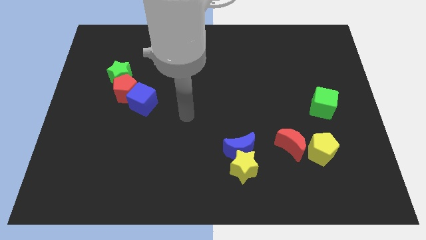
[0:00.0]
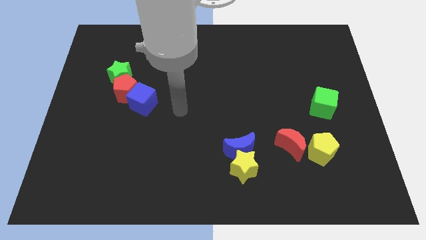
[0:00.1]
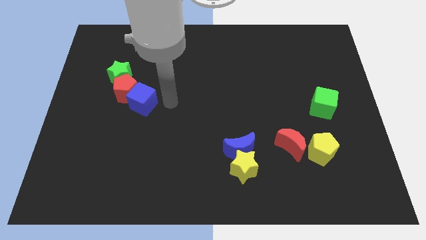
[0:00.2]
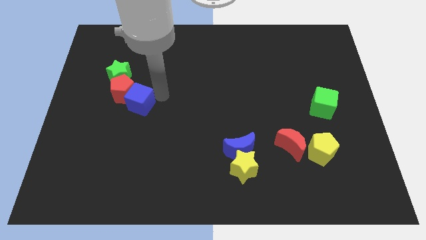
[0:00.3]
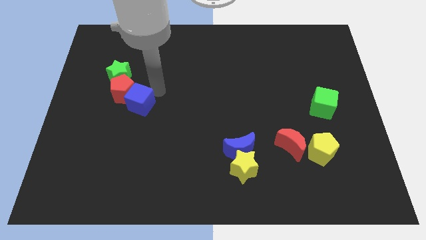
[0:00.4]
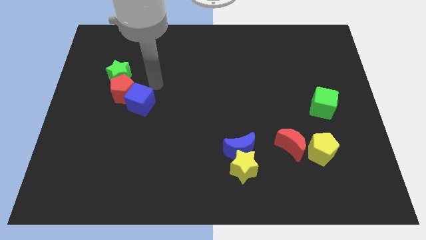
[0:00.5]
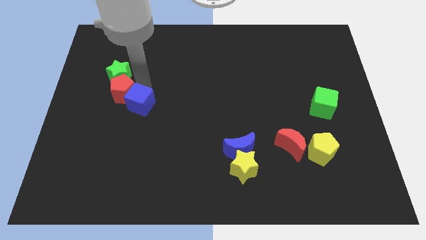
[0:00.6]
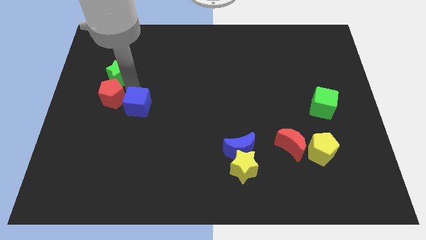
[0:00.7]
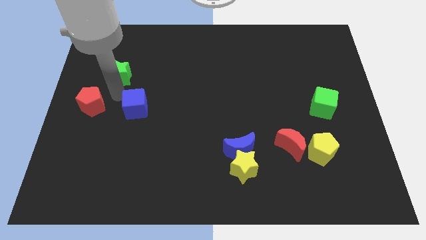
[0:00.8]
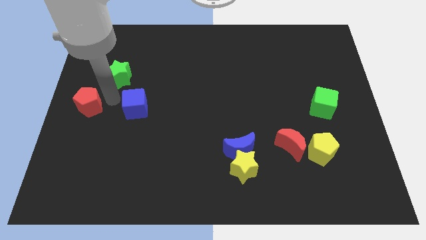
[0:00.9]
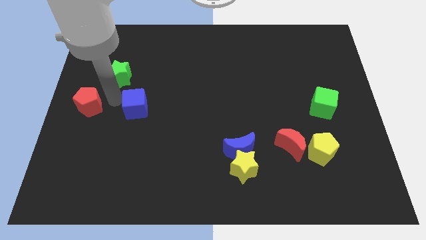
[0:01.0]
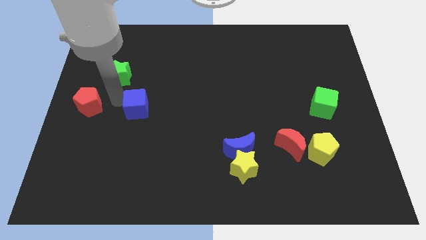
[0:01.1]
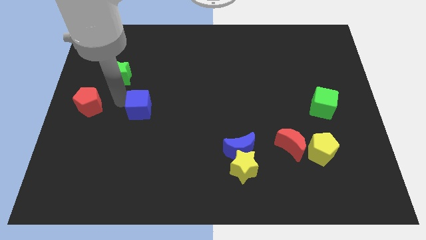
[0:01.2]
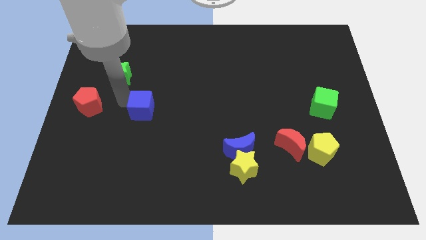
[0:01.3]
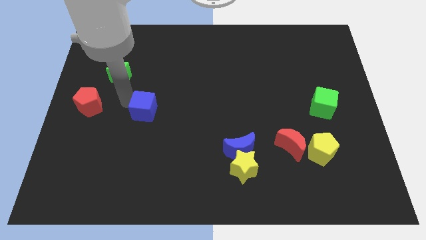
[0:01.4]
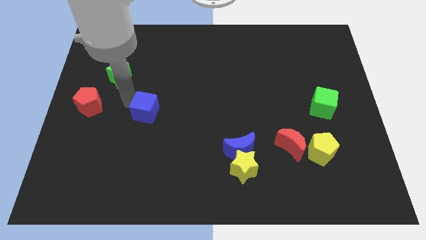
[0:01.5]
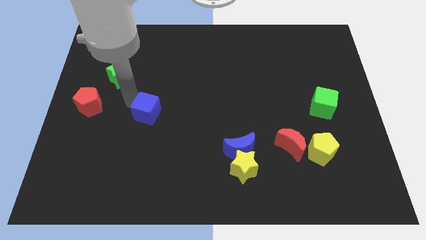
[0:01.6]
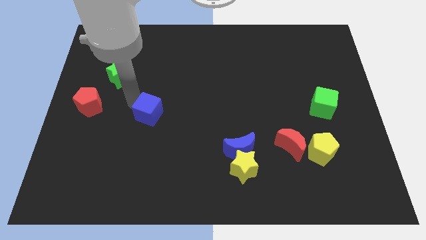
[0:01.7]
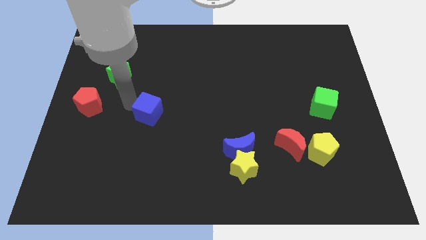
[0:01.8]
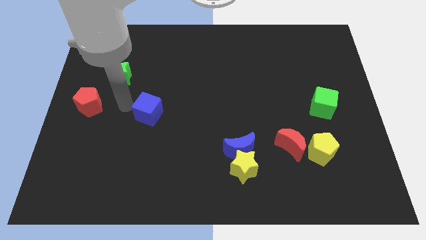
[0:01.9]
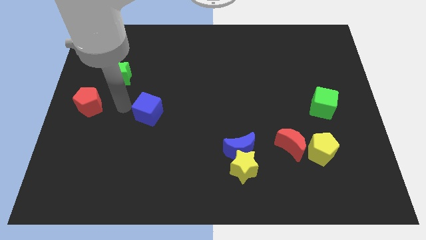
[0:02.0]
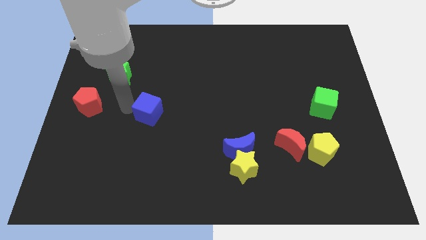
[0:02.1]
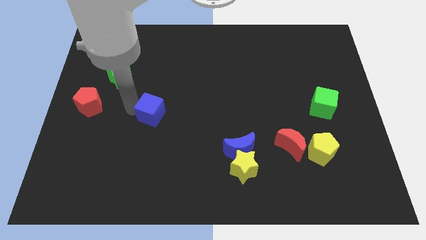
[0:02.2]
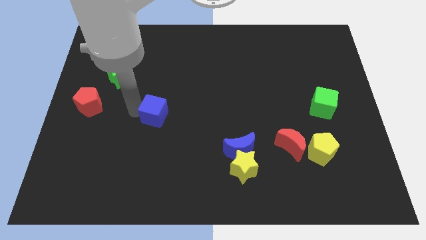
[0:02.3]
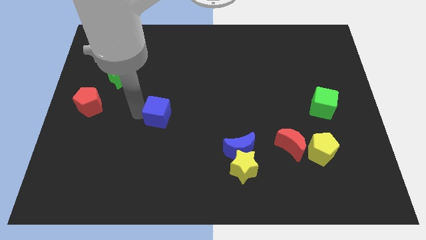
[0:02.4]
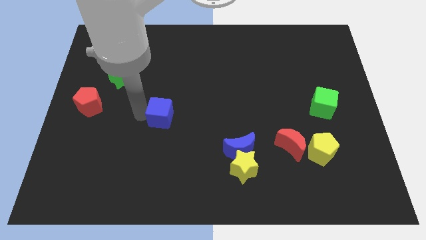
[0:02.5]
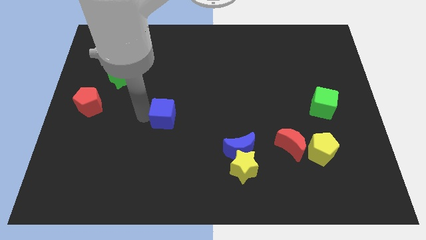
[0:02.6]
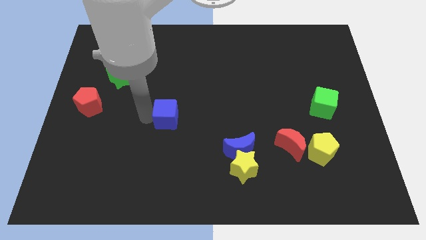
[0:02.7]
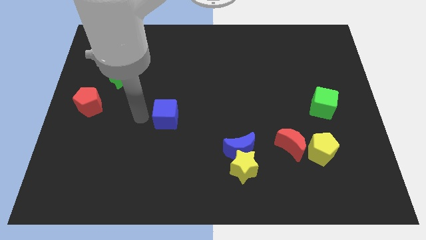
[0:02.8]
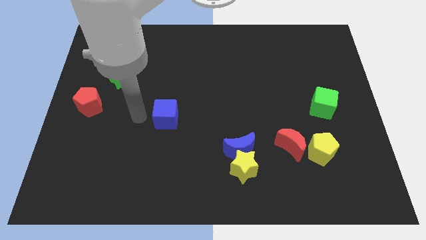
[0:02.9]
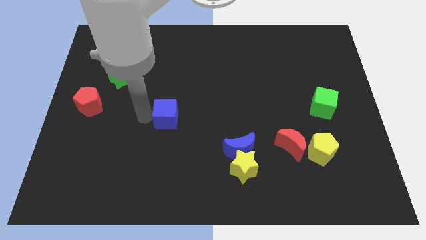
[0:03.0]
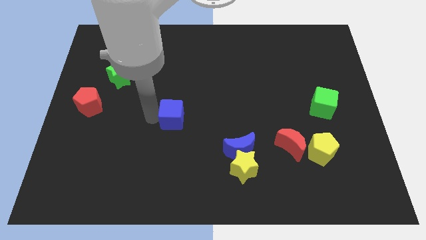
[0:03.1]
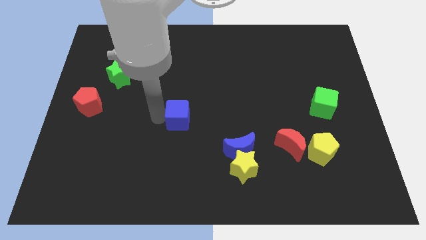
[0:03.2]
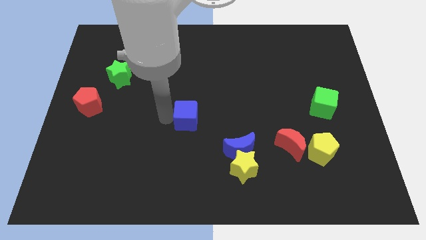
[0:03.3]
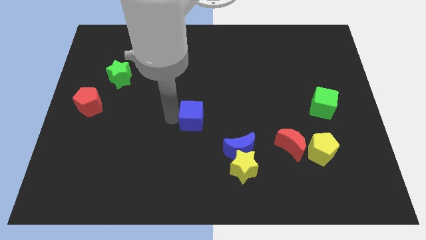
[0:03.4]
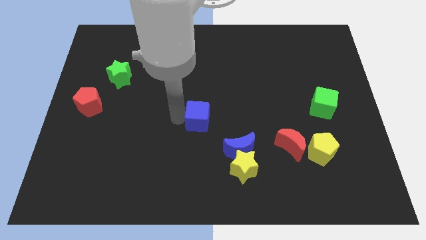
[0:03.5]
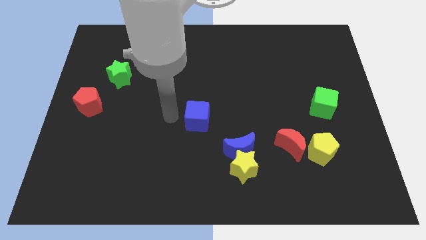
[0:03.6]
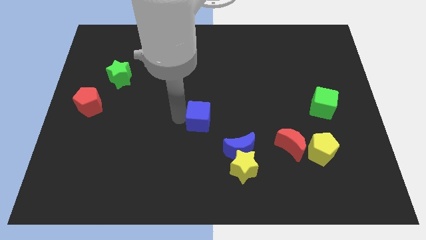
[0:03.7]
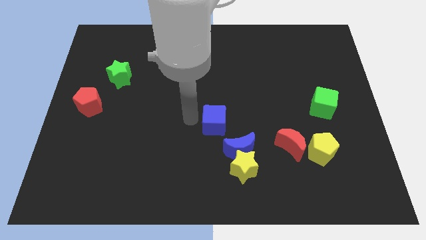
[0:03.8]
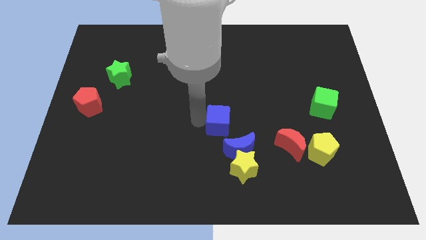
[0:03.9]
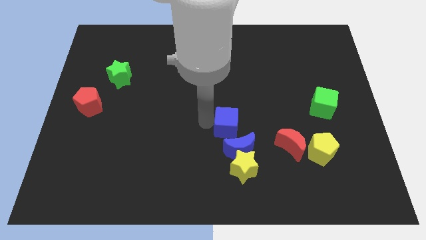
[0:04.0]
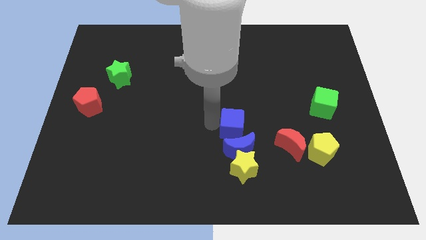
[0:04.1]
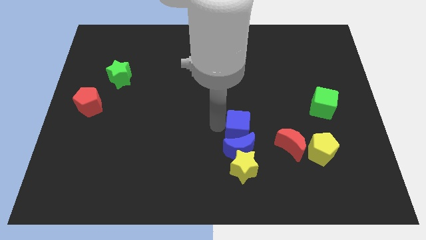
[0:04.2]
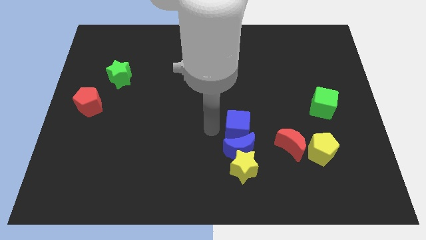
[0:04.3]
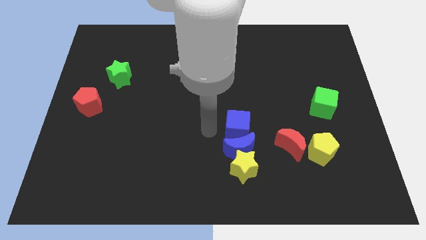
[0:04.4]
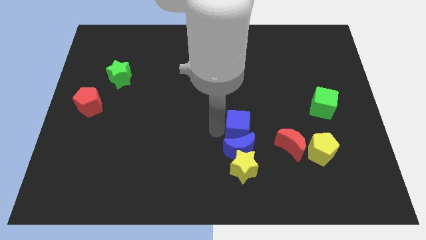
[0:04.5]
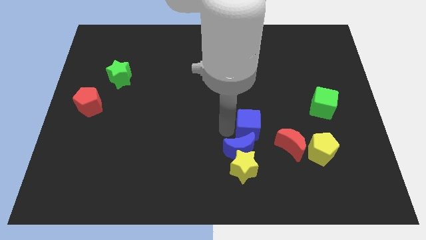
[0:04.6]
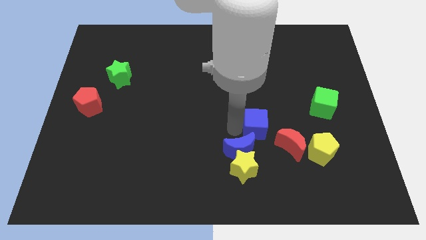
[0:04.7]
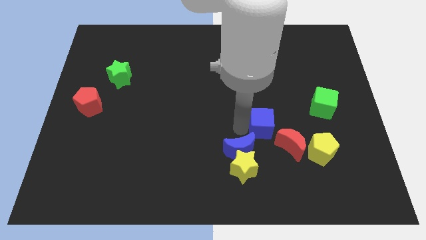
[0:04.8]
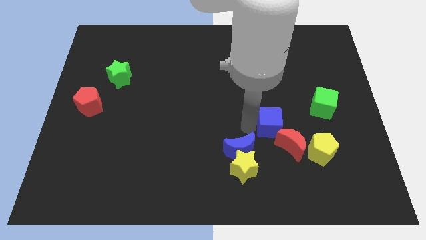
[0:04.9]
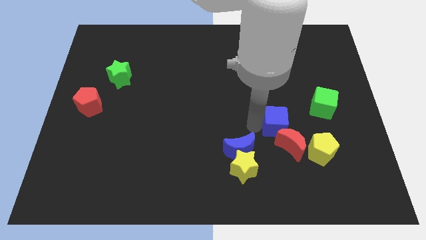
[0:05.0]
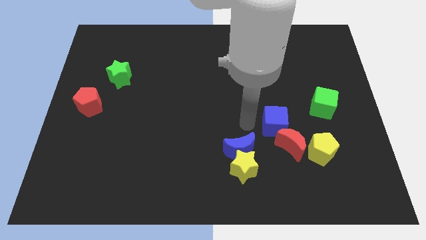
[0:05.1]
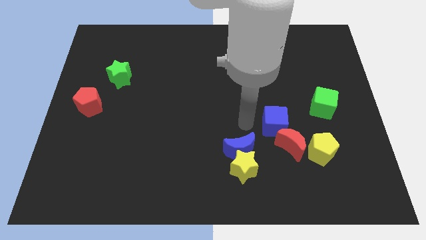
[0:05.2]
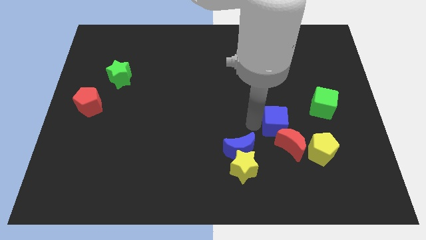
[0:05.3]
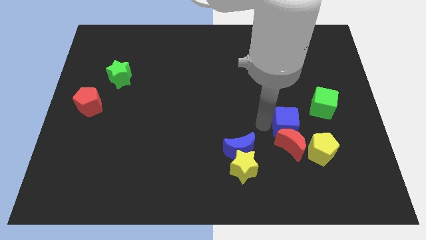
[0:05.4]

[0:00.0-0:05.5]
push the blue cube to the top right of the red moon

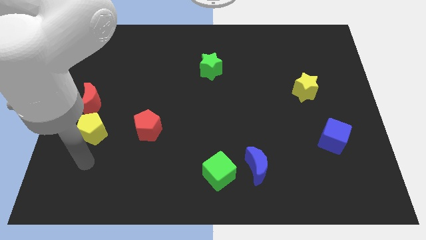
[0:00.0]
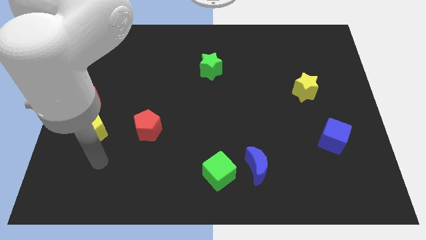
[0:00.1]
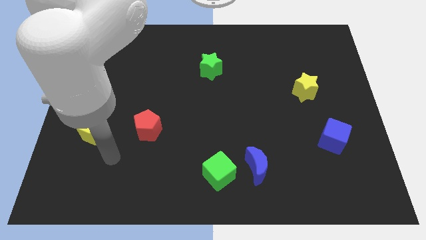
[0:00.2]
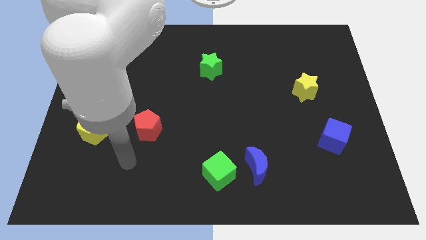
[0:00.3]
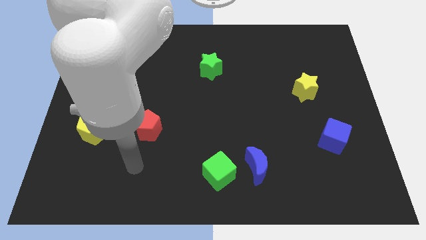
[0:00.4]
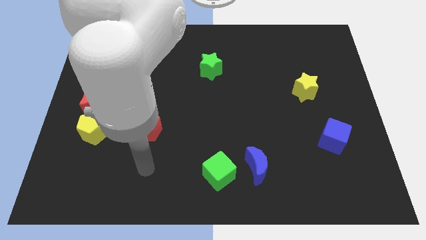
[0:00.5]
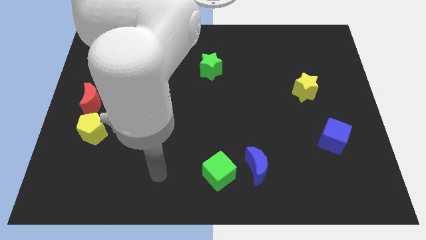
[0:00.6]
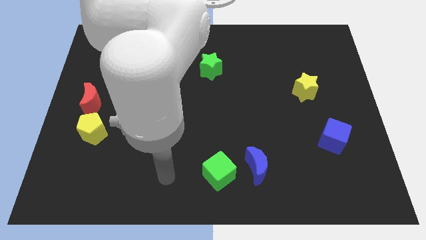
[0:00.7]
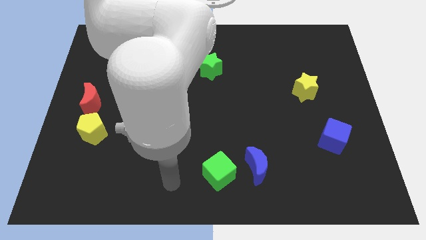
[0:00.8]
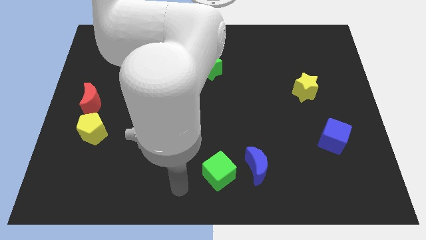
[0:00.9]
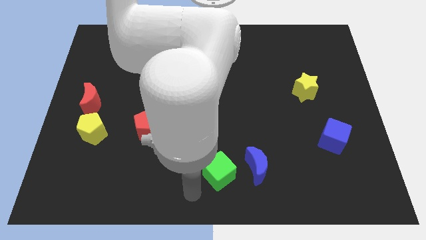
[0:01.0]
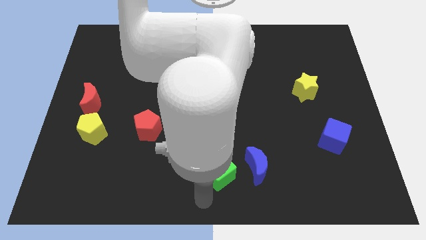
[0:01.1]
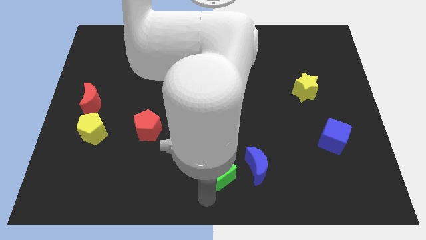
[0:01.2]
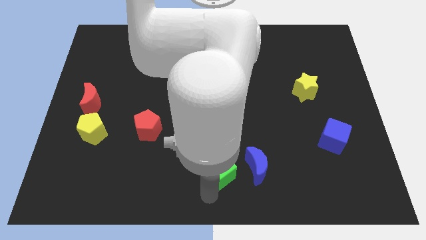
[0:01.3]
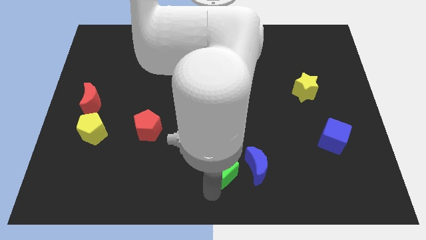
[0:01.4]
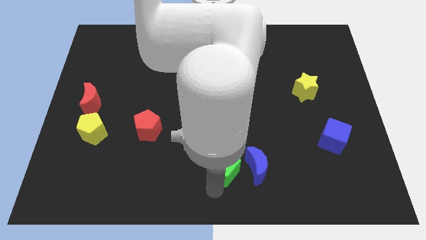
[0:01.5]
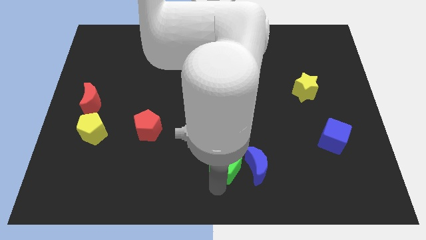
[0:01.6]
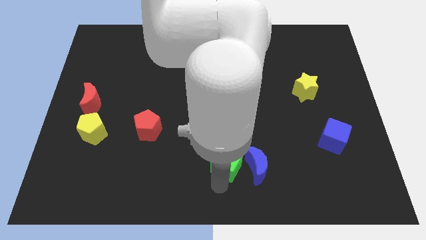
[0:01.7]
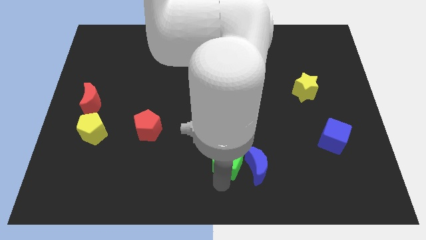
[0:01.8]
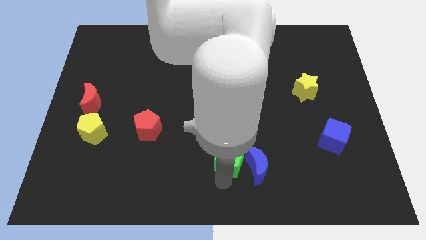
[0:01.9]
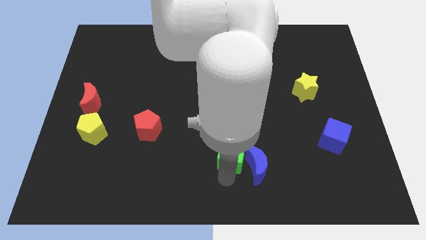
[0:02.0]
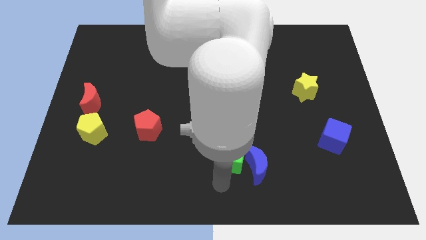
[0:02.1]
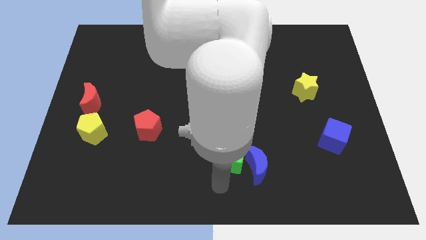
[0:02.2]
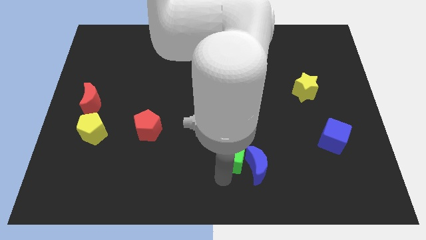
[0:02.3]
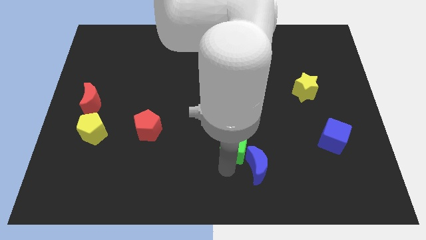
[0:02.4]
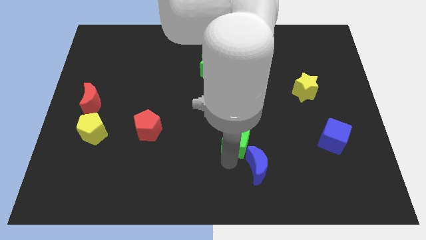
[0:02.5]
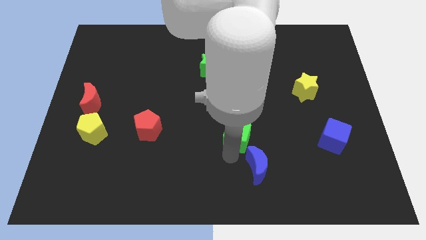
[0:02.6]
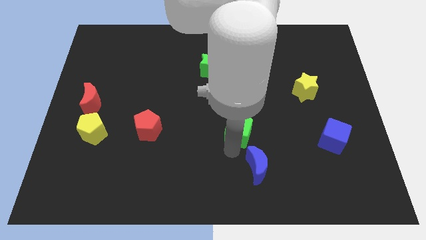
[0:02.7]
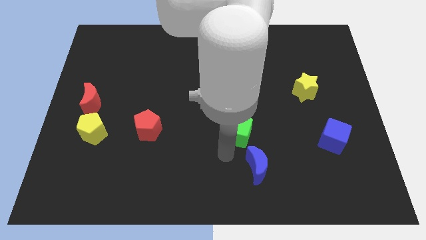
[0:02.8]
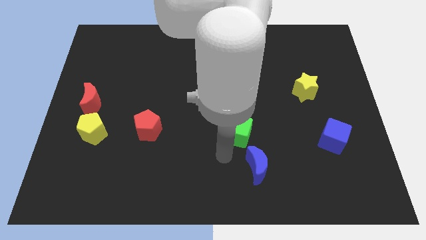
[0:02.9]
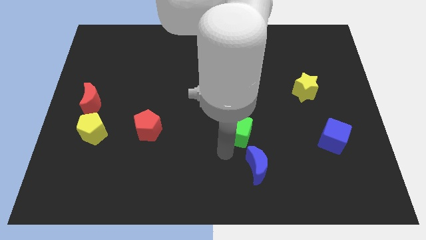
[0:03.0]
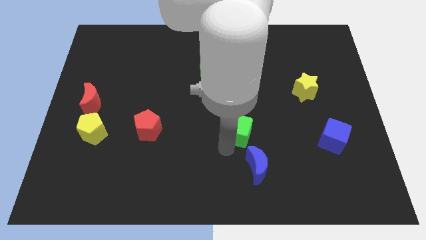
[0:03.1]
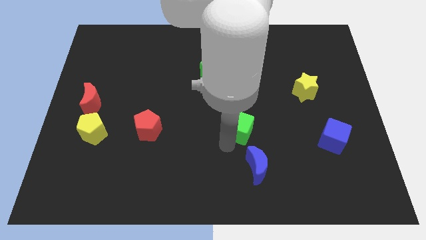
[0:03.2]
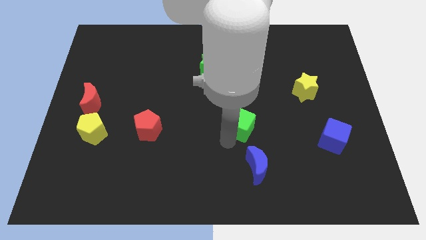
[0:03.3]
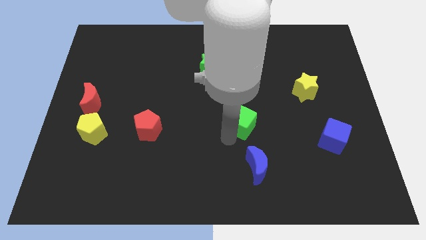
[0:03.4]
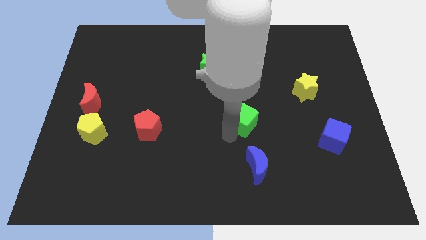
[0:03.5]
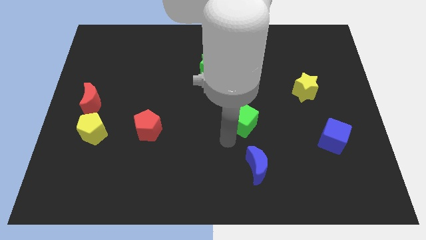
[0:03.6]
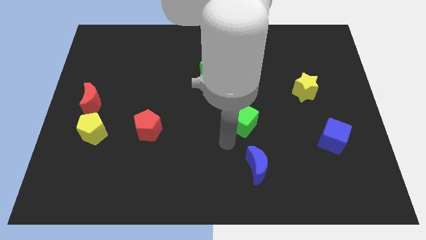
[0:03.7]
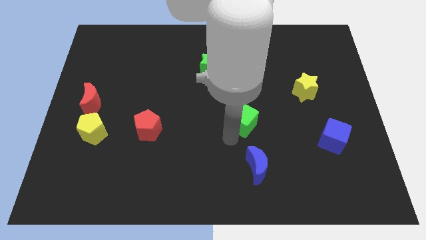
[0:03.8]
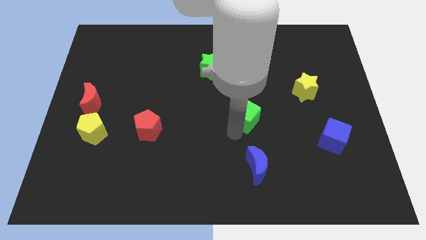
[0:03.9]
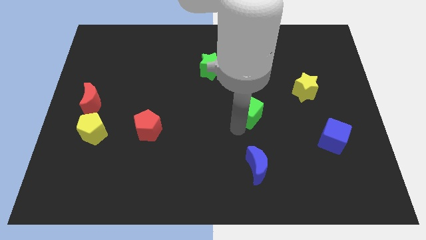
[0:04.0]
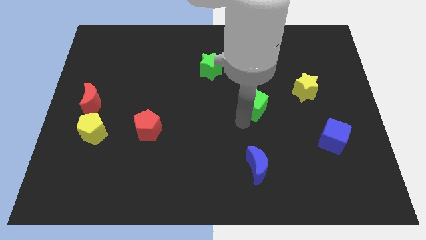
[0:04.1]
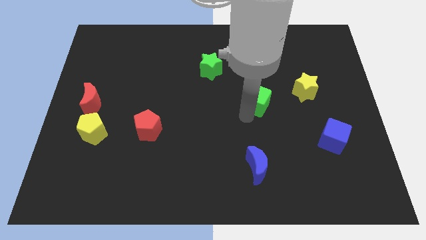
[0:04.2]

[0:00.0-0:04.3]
slide the green cube to the left side of the yellow star
